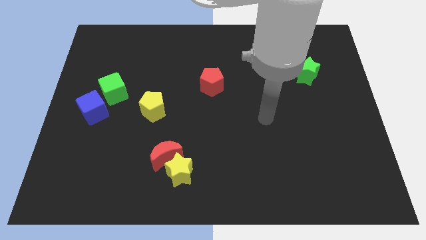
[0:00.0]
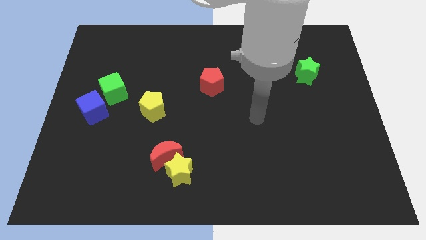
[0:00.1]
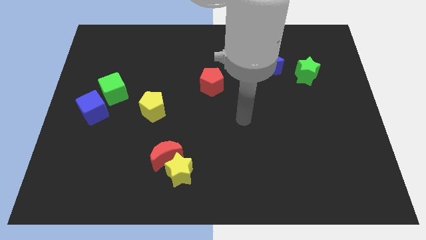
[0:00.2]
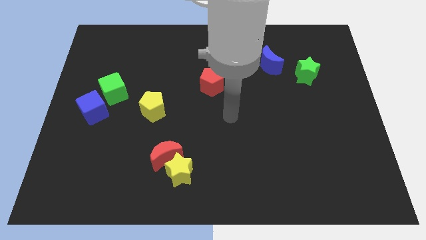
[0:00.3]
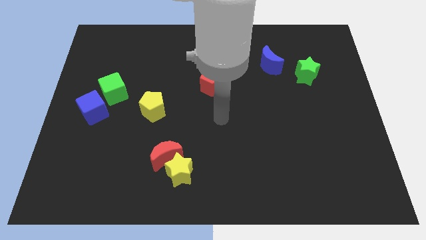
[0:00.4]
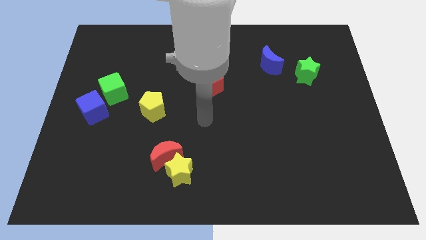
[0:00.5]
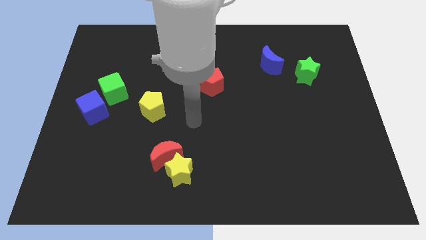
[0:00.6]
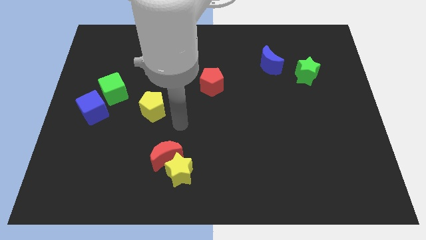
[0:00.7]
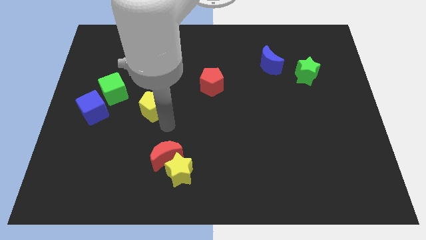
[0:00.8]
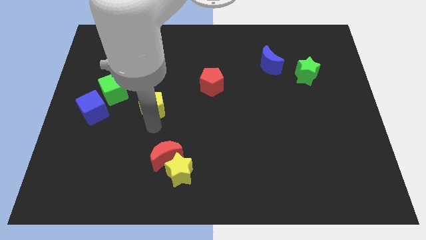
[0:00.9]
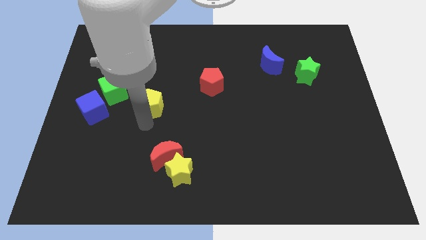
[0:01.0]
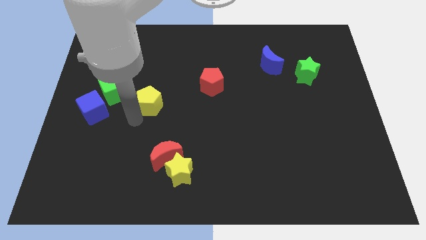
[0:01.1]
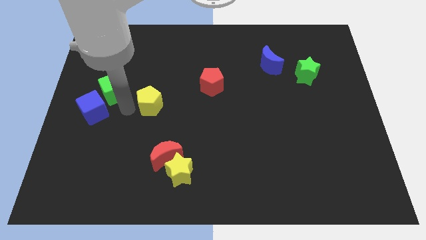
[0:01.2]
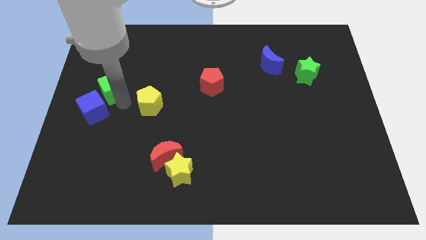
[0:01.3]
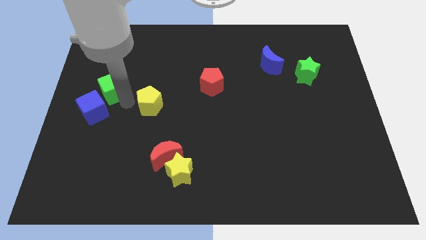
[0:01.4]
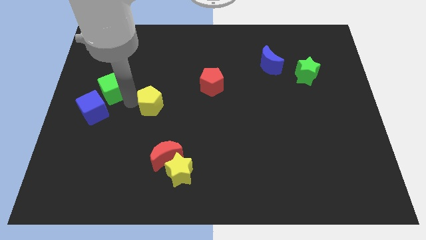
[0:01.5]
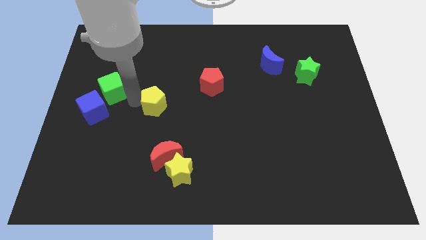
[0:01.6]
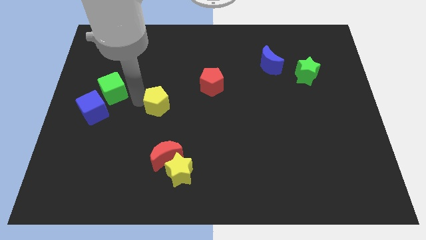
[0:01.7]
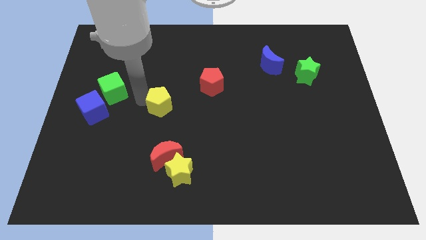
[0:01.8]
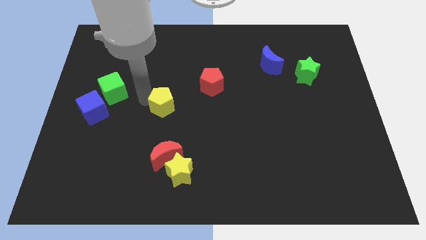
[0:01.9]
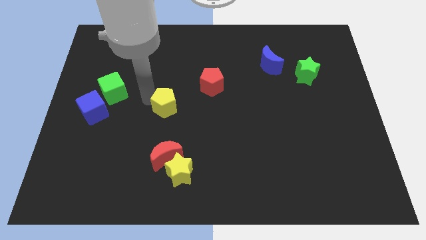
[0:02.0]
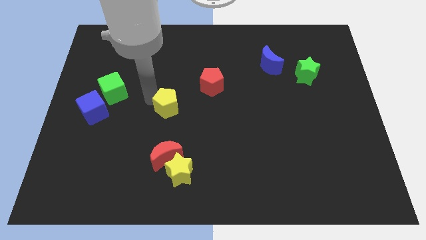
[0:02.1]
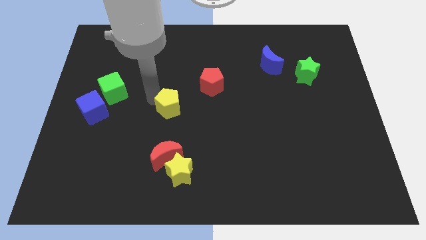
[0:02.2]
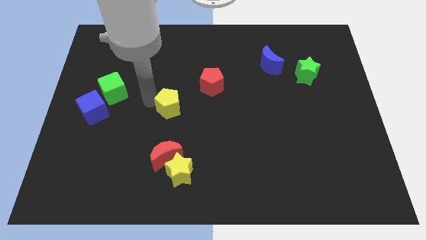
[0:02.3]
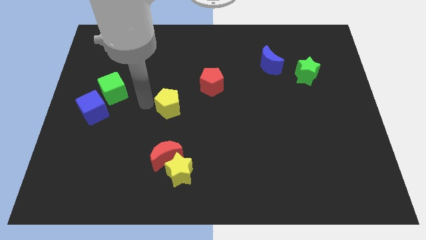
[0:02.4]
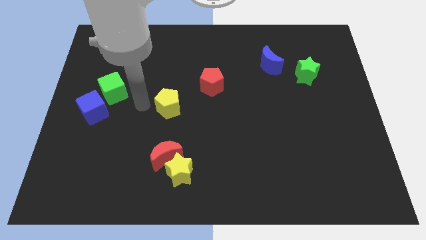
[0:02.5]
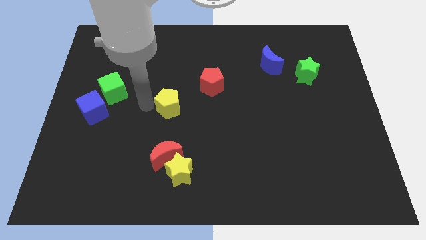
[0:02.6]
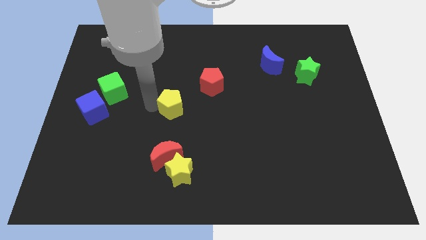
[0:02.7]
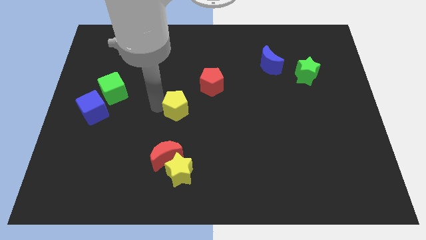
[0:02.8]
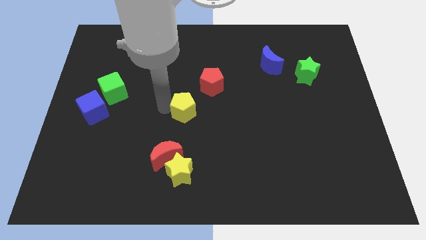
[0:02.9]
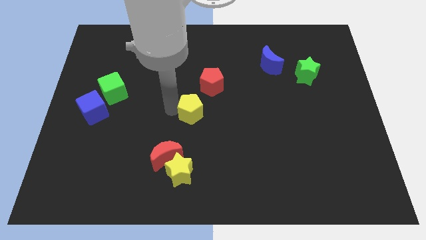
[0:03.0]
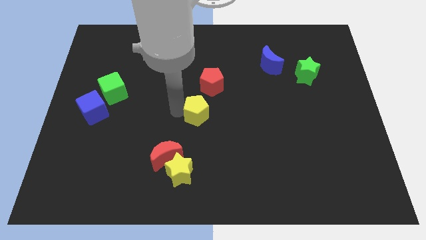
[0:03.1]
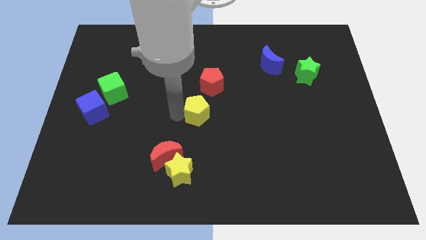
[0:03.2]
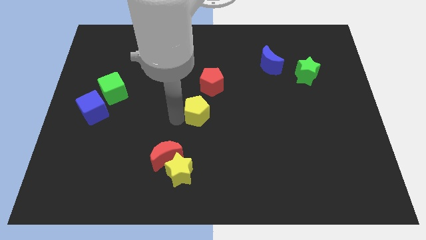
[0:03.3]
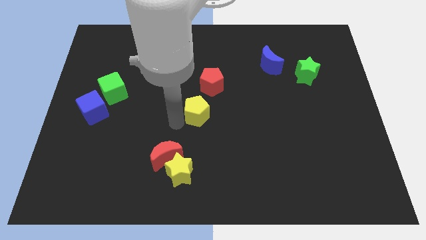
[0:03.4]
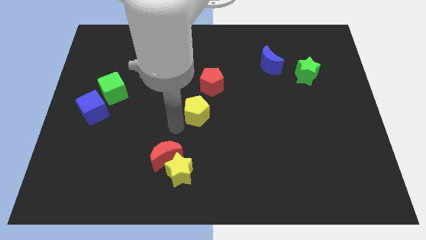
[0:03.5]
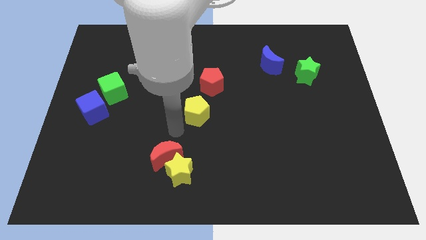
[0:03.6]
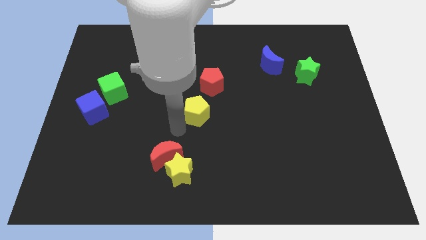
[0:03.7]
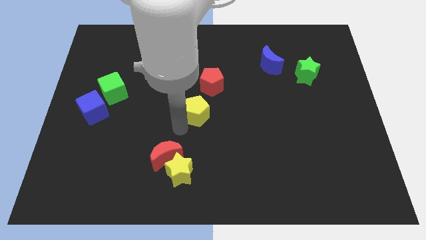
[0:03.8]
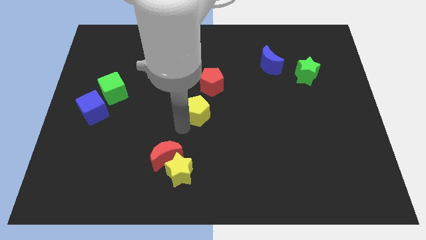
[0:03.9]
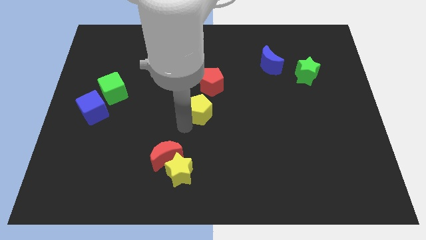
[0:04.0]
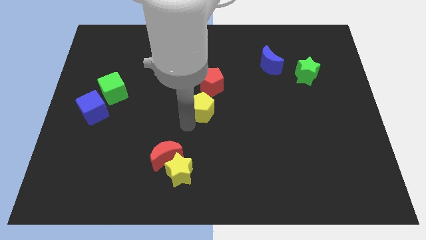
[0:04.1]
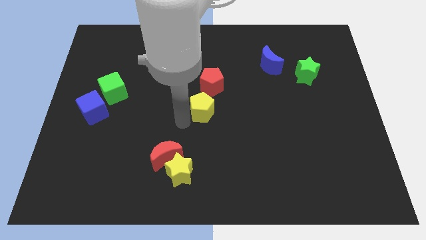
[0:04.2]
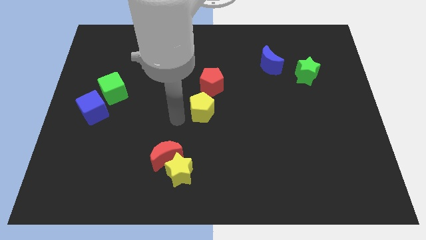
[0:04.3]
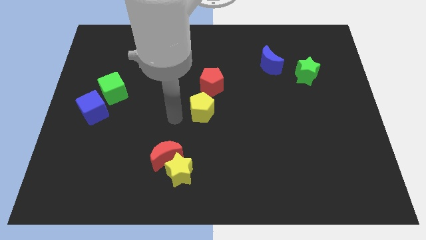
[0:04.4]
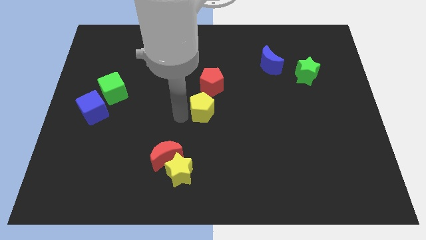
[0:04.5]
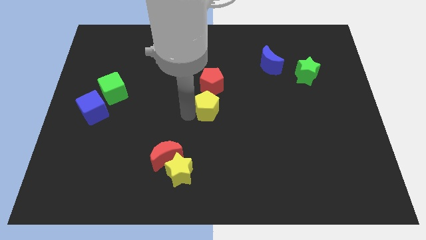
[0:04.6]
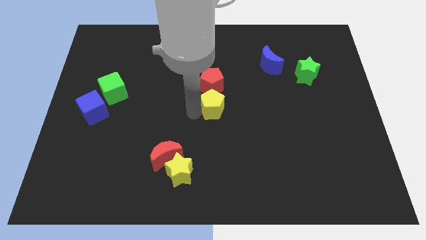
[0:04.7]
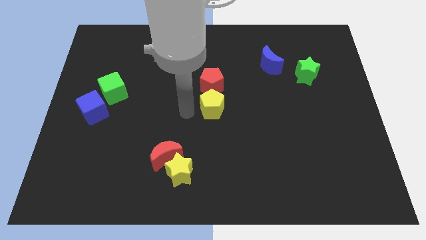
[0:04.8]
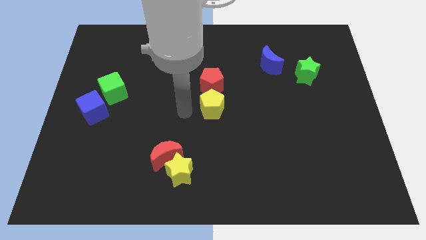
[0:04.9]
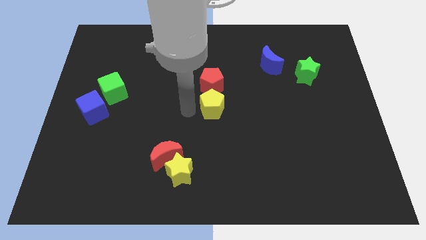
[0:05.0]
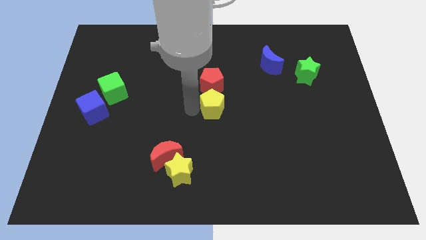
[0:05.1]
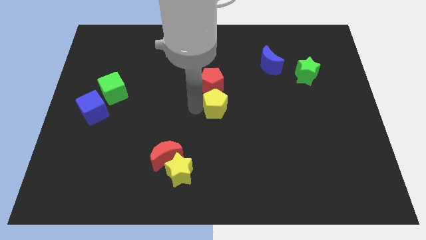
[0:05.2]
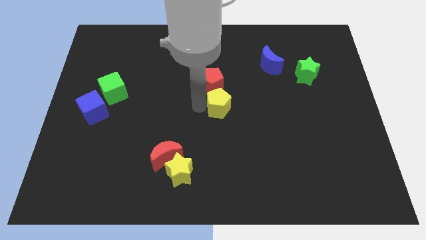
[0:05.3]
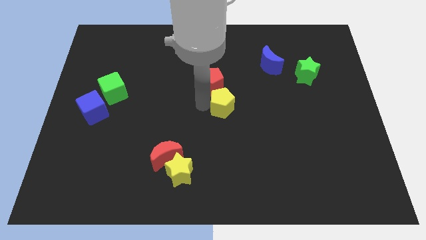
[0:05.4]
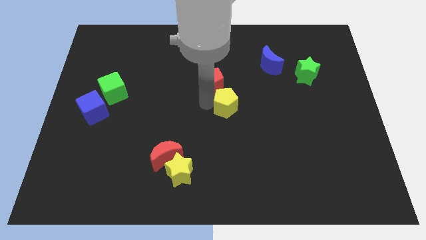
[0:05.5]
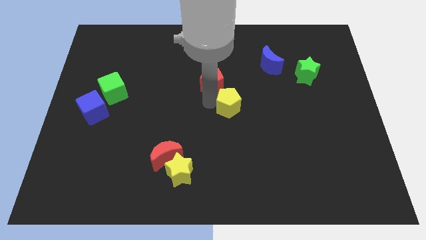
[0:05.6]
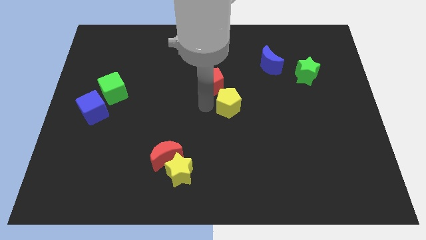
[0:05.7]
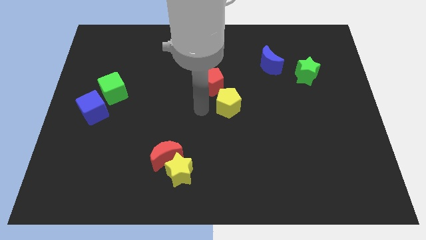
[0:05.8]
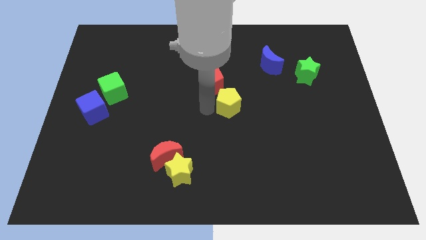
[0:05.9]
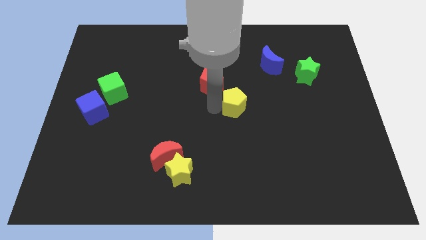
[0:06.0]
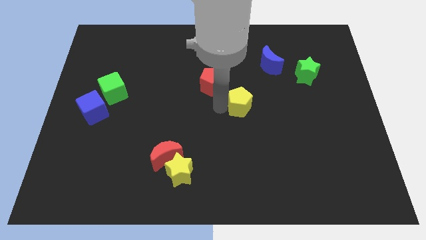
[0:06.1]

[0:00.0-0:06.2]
move the yellow pentagon to the right

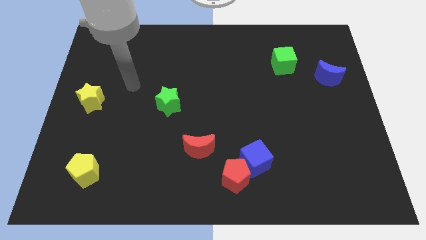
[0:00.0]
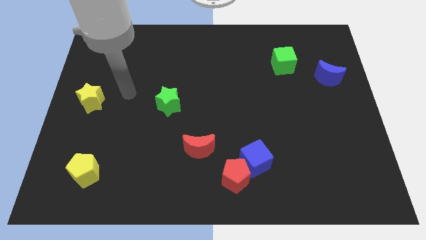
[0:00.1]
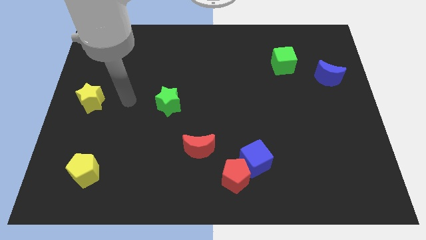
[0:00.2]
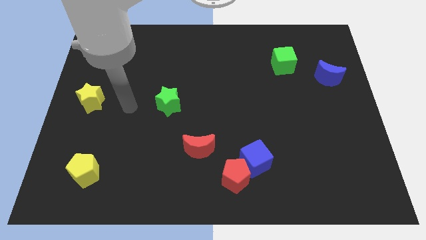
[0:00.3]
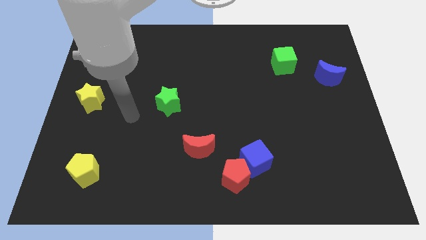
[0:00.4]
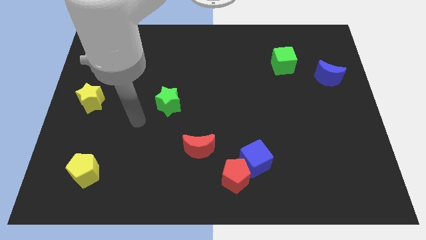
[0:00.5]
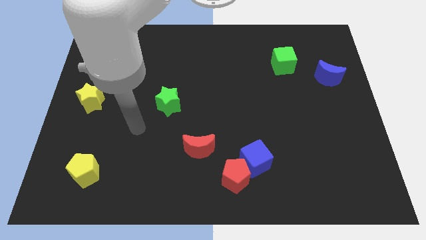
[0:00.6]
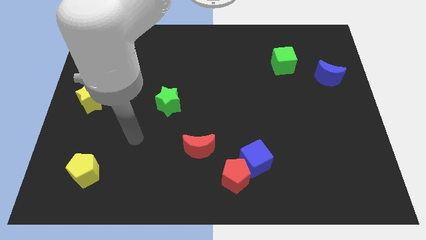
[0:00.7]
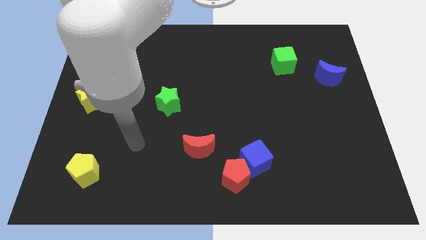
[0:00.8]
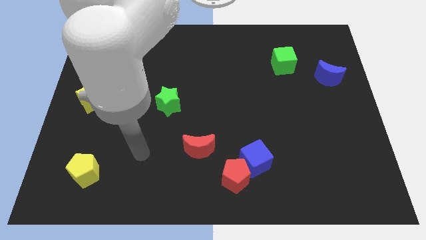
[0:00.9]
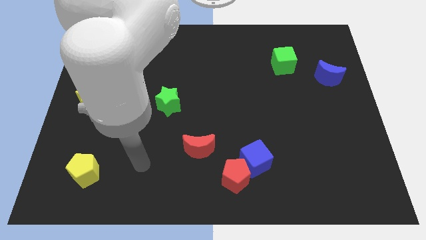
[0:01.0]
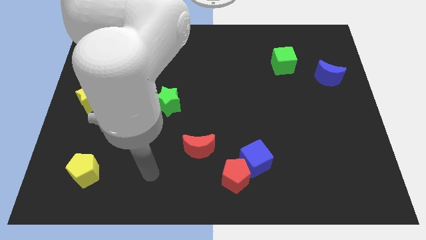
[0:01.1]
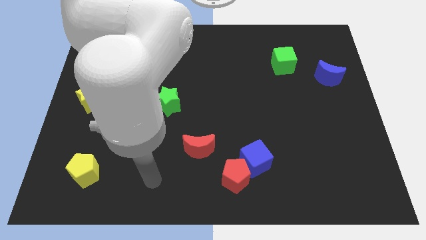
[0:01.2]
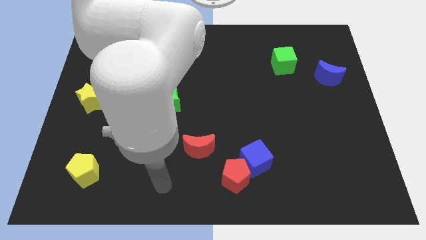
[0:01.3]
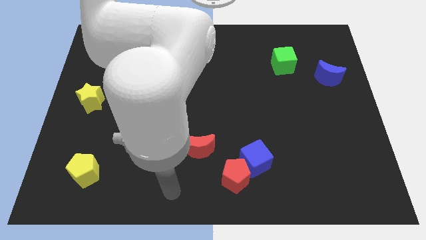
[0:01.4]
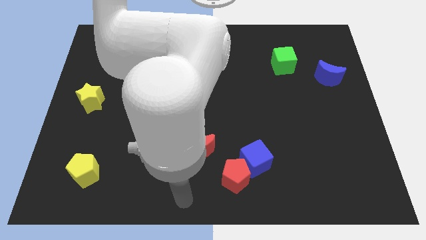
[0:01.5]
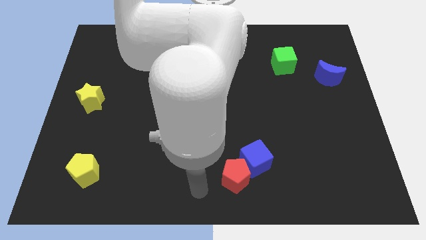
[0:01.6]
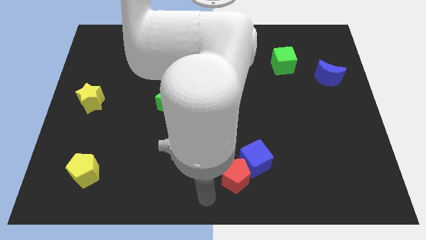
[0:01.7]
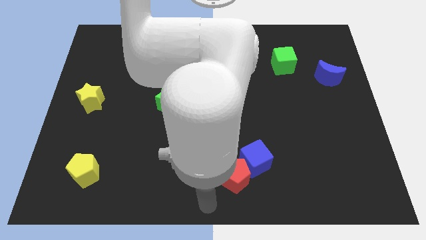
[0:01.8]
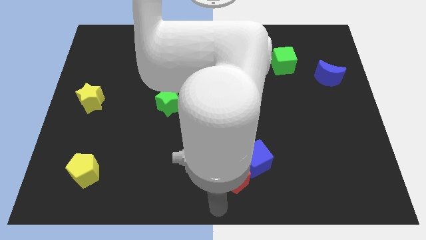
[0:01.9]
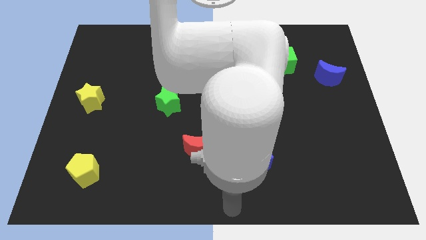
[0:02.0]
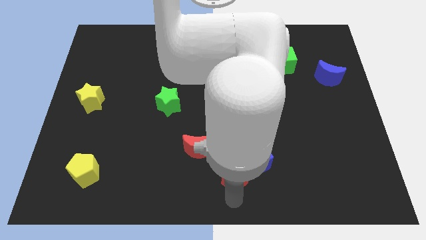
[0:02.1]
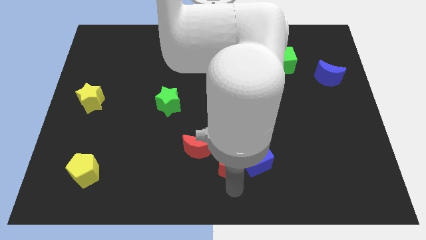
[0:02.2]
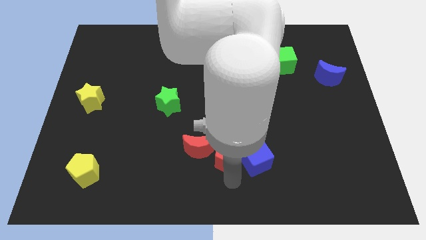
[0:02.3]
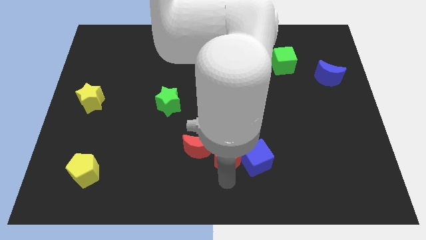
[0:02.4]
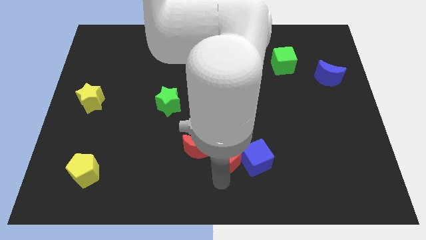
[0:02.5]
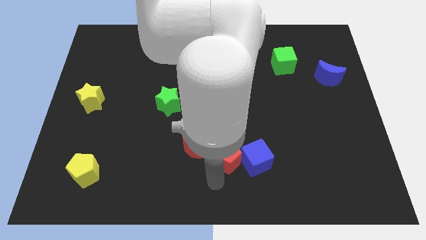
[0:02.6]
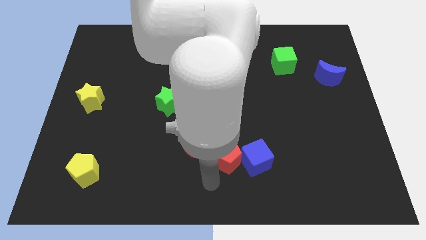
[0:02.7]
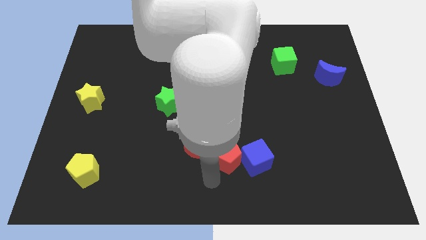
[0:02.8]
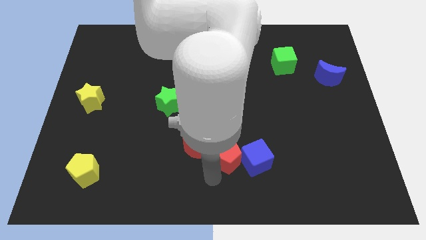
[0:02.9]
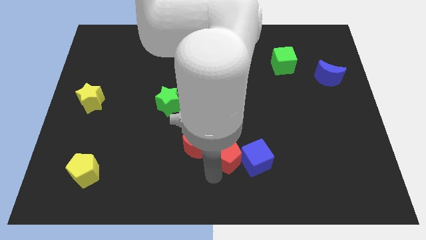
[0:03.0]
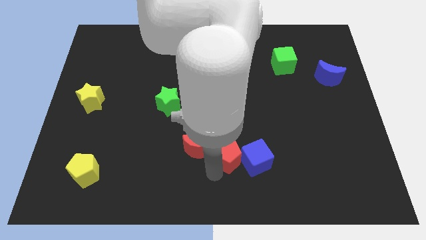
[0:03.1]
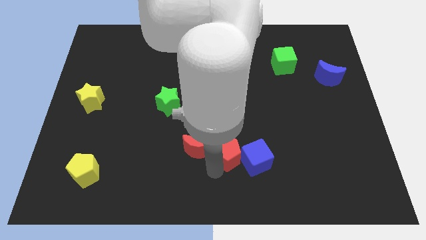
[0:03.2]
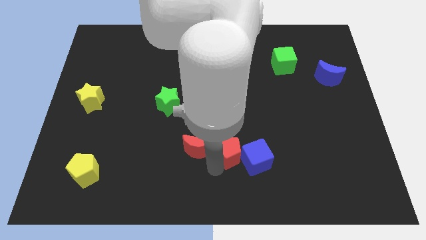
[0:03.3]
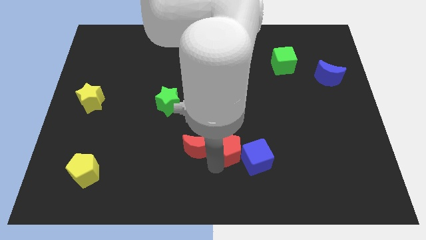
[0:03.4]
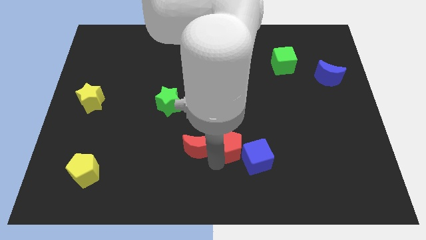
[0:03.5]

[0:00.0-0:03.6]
move the red pentagon up a bit
